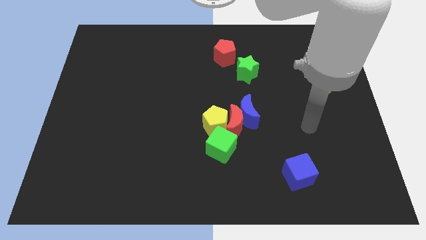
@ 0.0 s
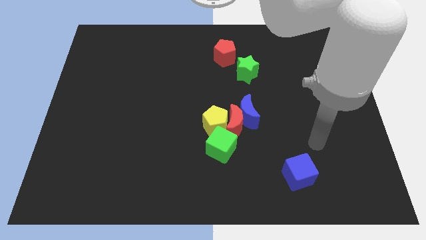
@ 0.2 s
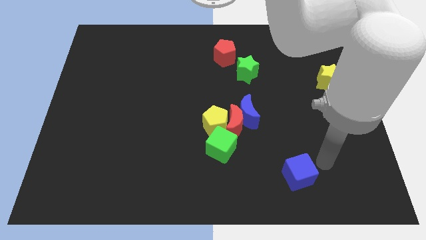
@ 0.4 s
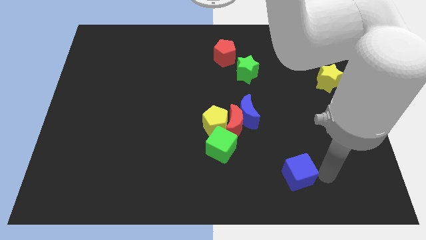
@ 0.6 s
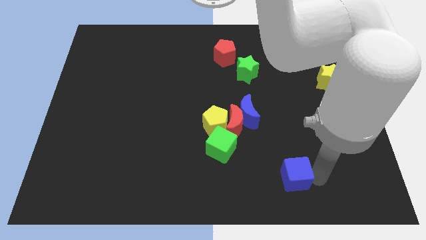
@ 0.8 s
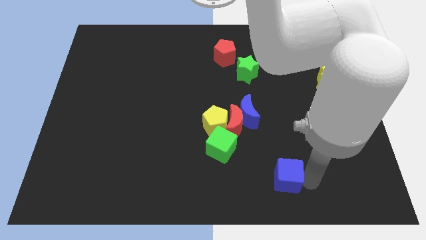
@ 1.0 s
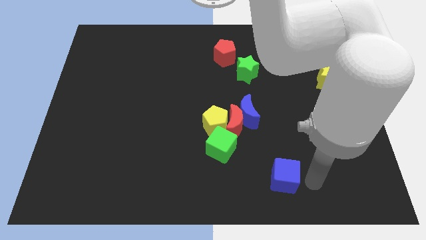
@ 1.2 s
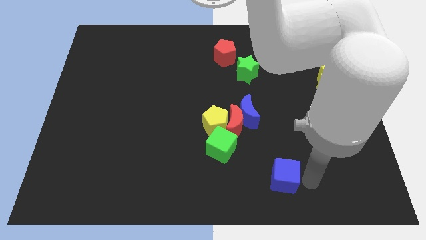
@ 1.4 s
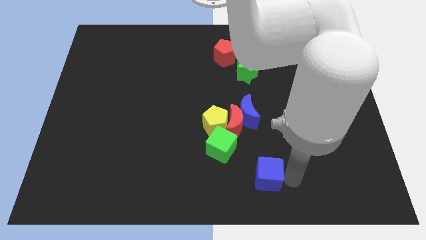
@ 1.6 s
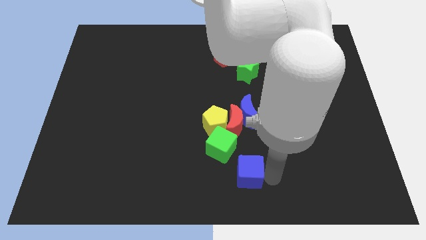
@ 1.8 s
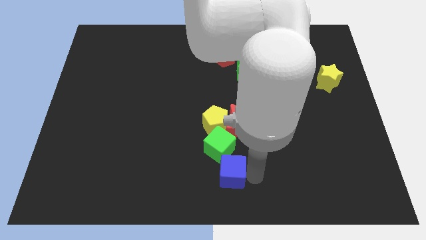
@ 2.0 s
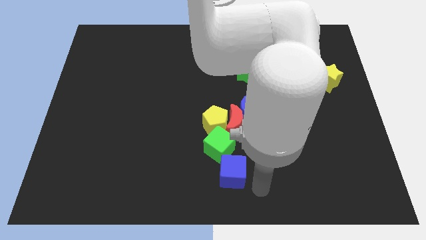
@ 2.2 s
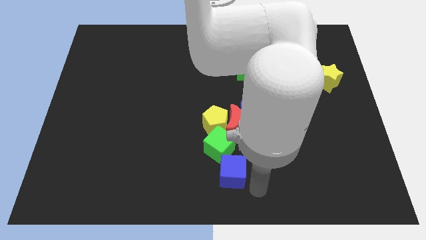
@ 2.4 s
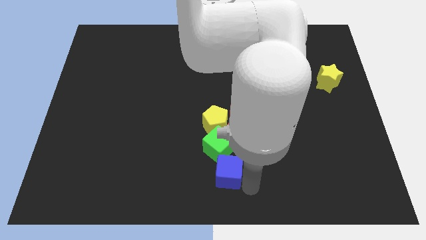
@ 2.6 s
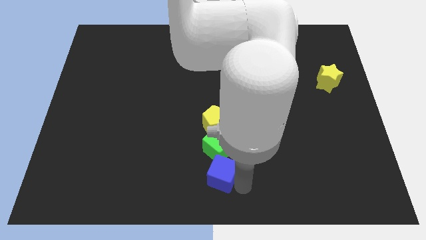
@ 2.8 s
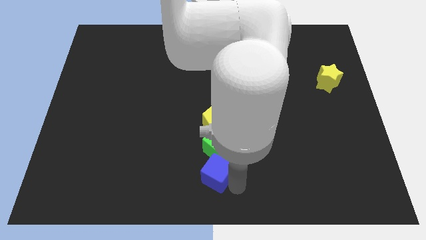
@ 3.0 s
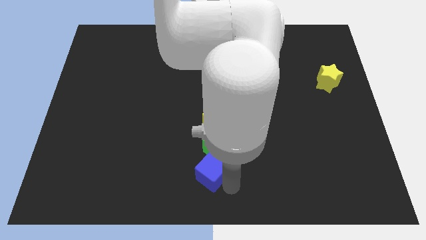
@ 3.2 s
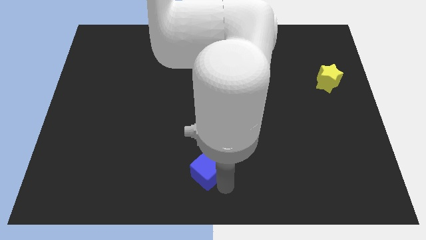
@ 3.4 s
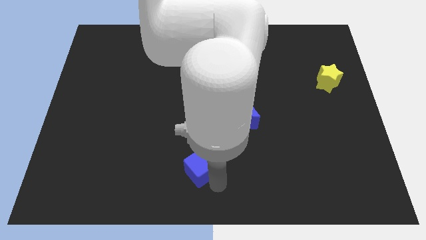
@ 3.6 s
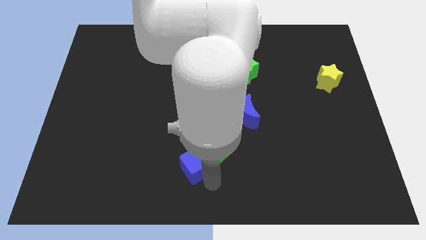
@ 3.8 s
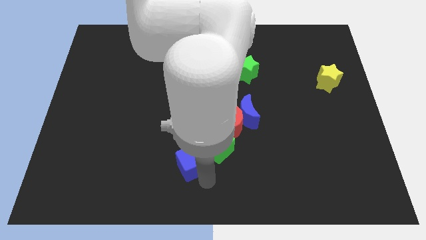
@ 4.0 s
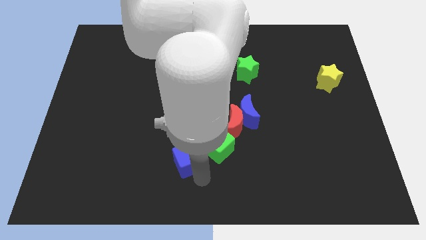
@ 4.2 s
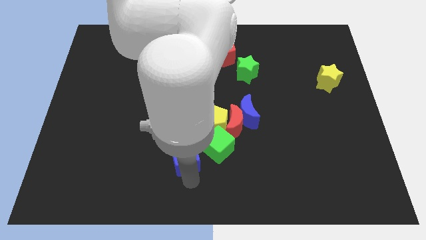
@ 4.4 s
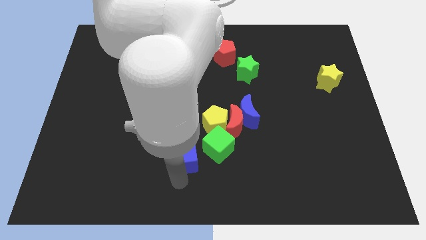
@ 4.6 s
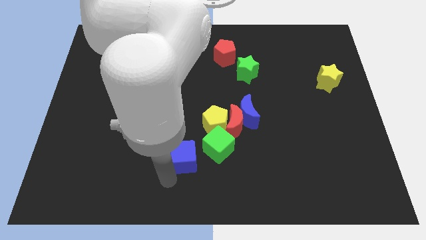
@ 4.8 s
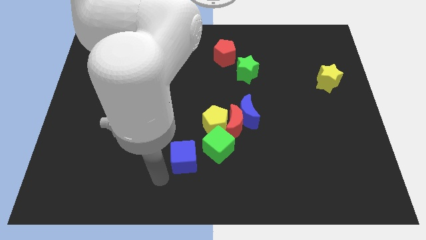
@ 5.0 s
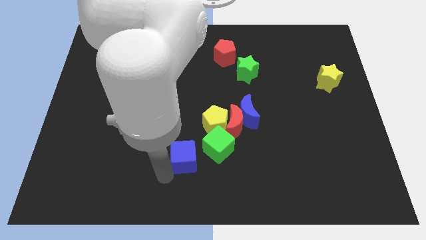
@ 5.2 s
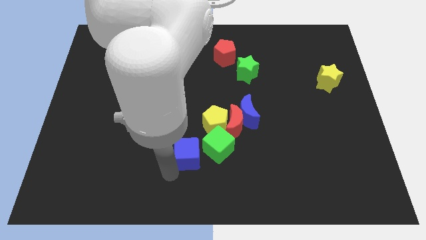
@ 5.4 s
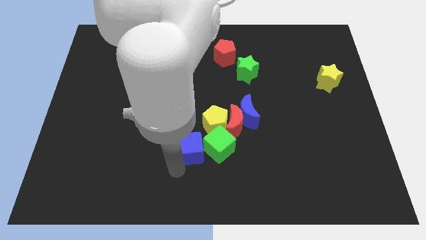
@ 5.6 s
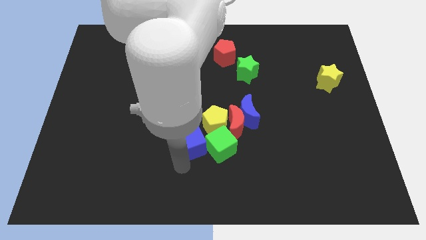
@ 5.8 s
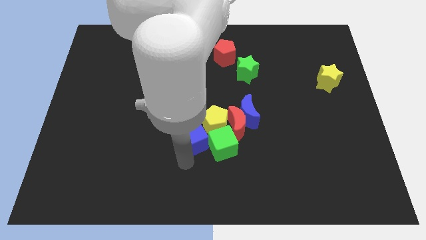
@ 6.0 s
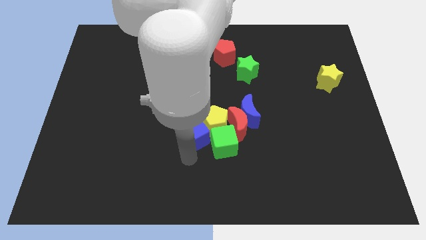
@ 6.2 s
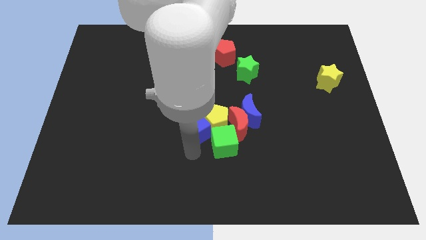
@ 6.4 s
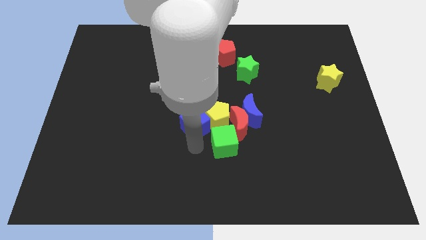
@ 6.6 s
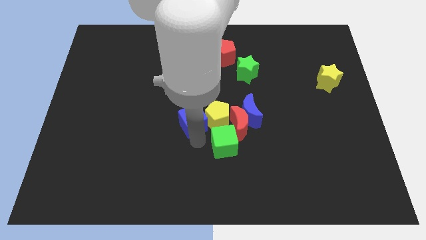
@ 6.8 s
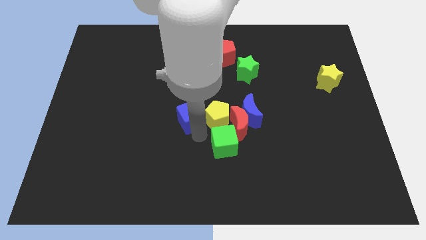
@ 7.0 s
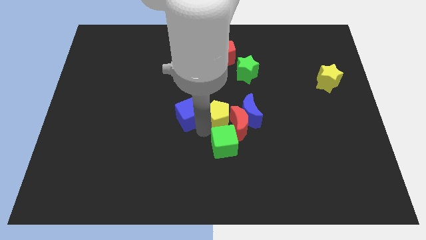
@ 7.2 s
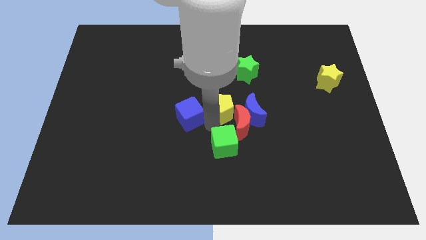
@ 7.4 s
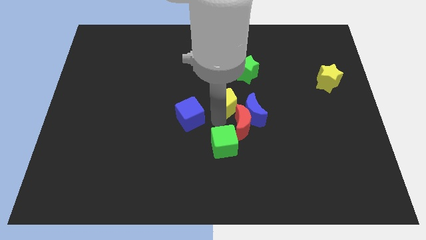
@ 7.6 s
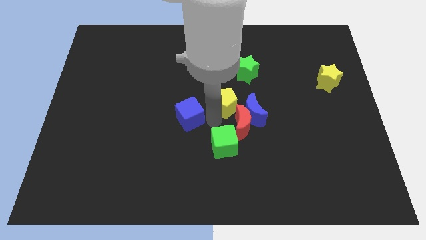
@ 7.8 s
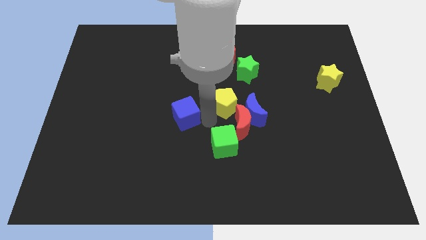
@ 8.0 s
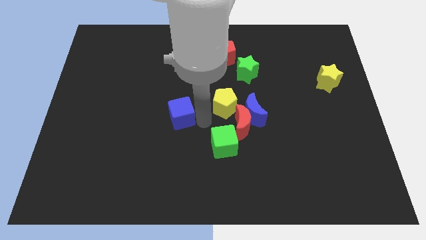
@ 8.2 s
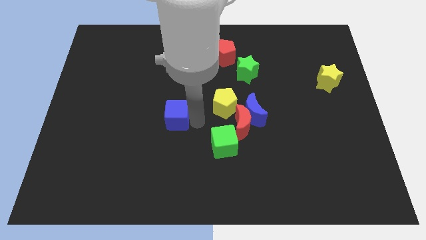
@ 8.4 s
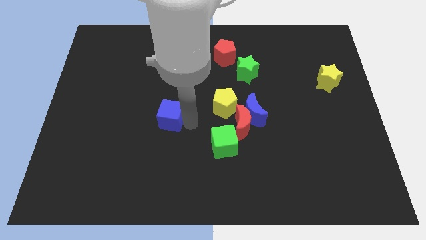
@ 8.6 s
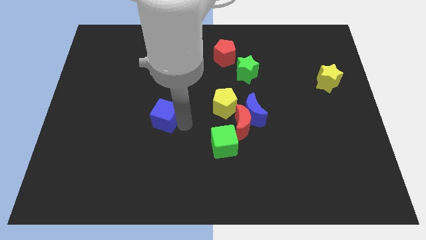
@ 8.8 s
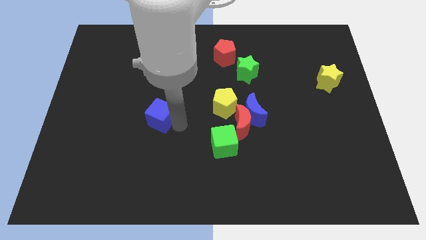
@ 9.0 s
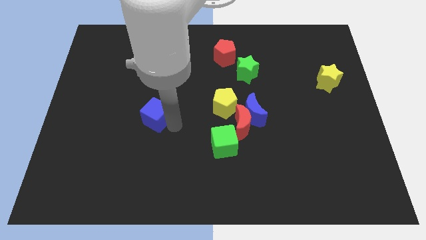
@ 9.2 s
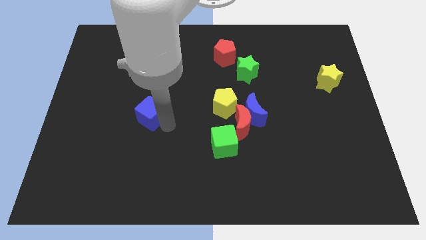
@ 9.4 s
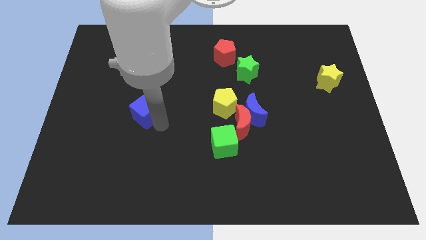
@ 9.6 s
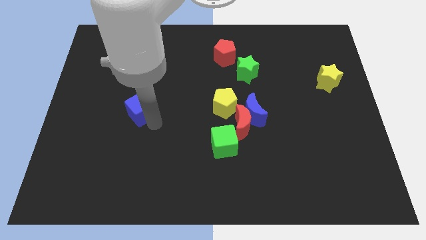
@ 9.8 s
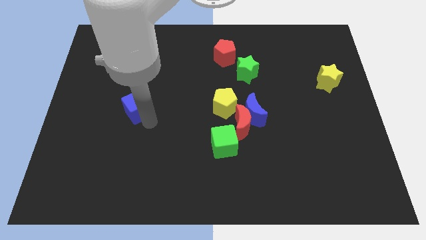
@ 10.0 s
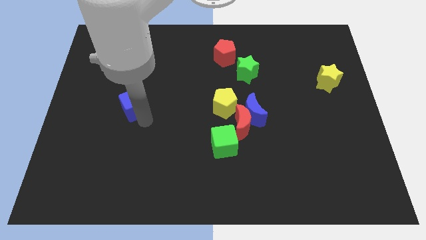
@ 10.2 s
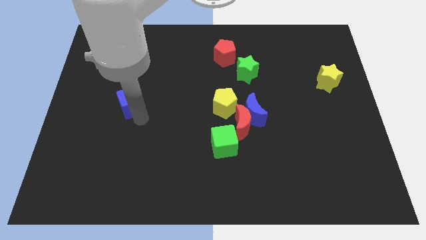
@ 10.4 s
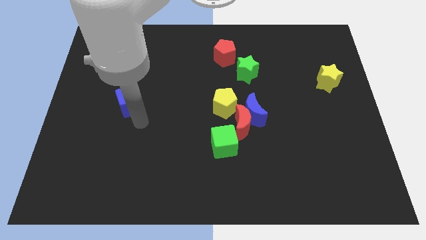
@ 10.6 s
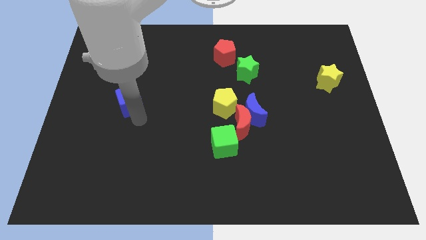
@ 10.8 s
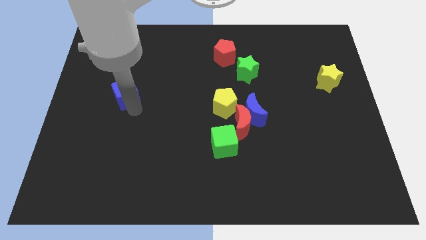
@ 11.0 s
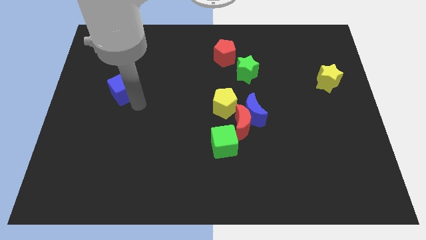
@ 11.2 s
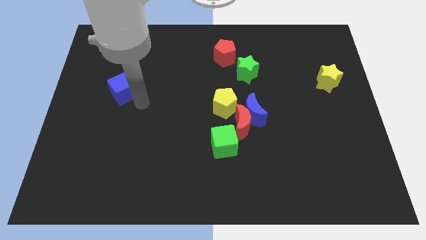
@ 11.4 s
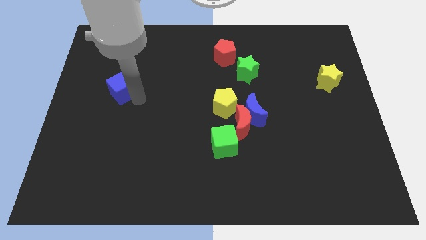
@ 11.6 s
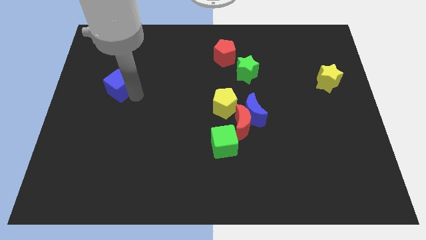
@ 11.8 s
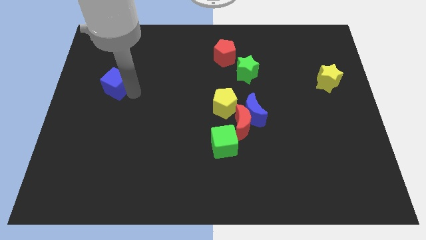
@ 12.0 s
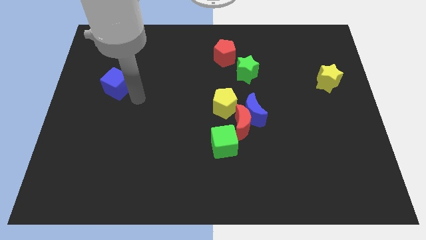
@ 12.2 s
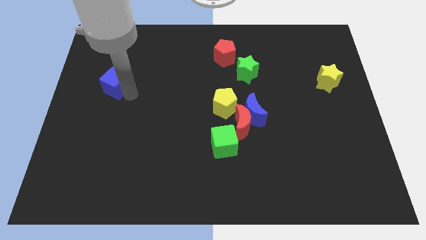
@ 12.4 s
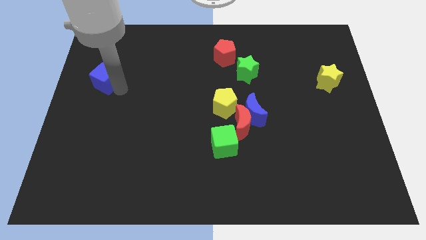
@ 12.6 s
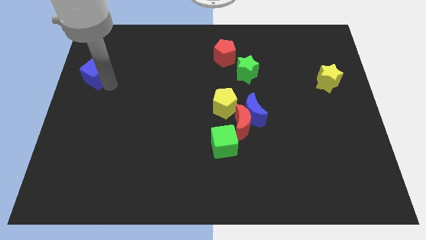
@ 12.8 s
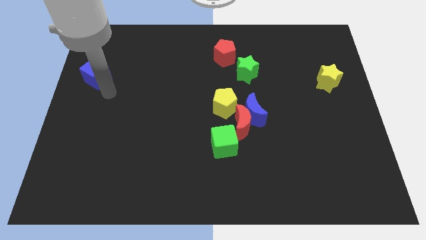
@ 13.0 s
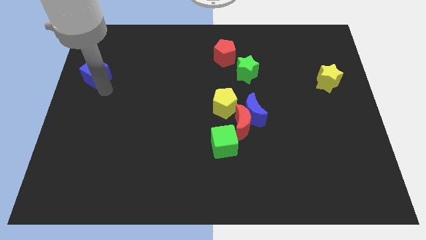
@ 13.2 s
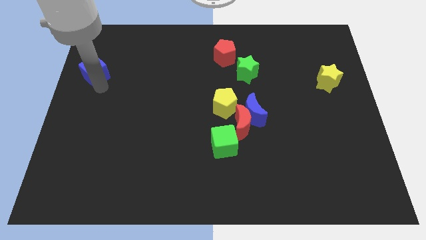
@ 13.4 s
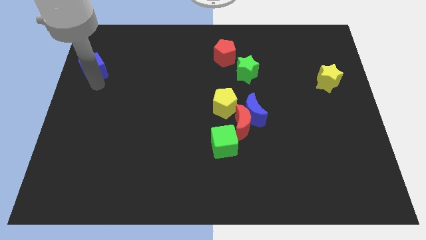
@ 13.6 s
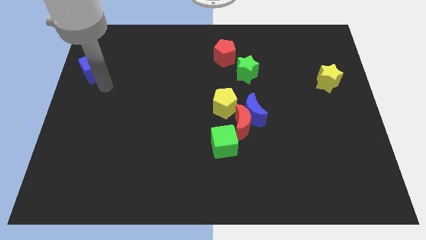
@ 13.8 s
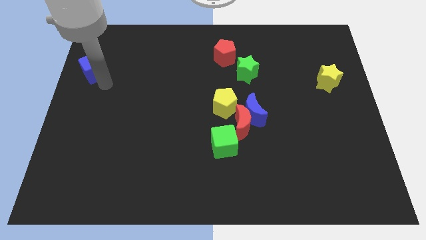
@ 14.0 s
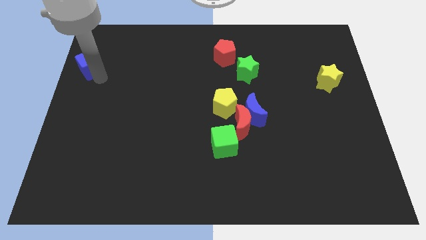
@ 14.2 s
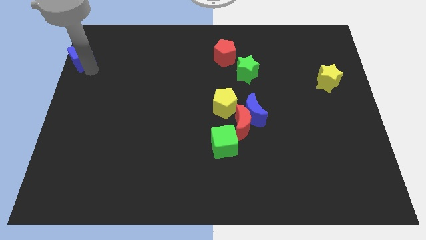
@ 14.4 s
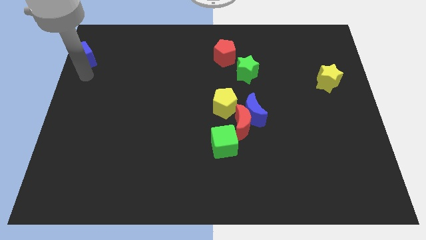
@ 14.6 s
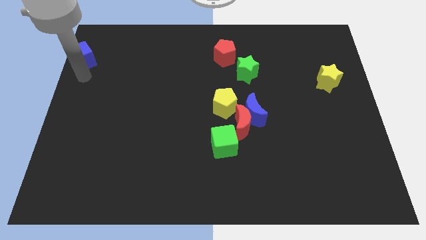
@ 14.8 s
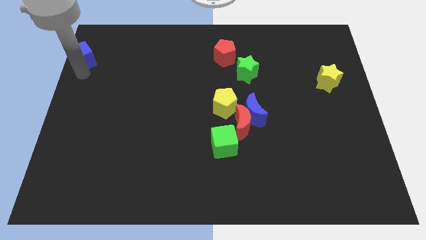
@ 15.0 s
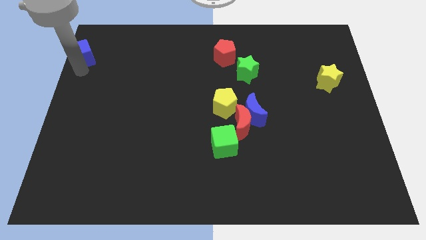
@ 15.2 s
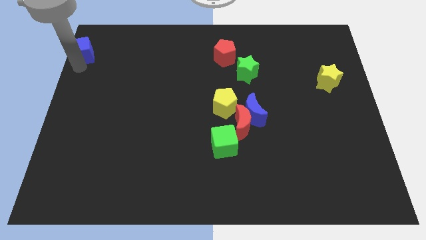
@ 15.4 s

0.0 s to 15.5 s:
slide the blue cube to the top left of the board
